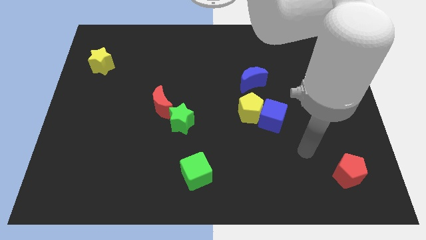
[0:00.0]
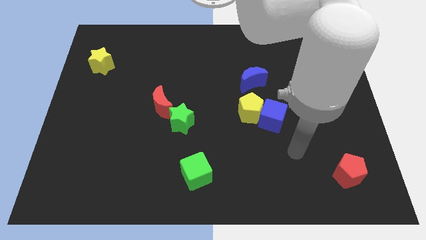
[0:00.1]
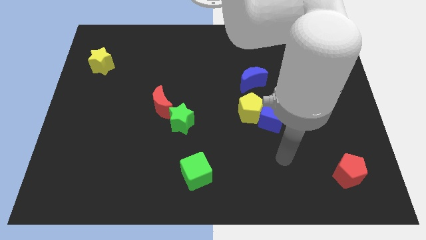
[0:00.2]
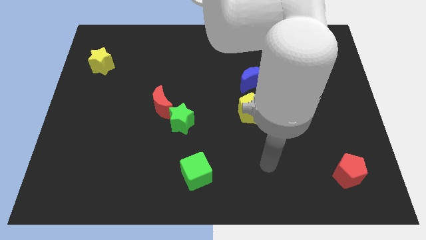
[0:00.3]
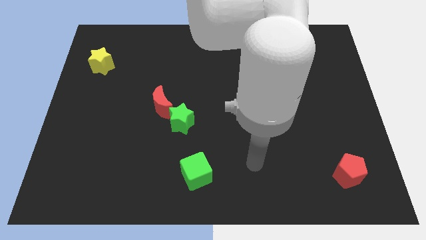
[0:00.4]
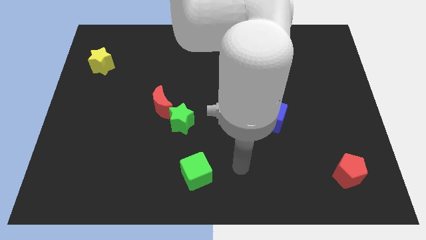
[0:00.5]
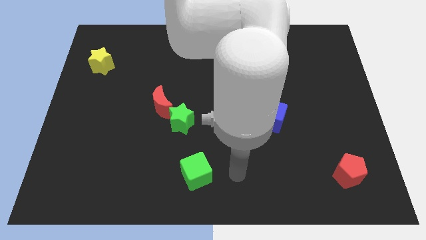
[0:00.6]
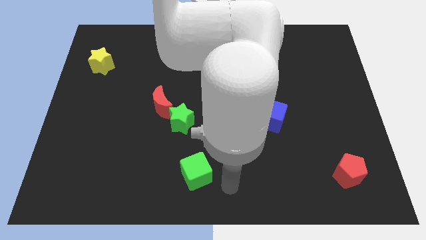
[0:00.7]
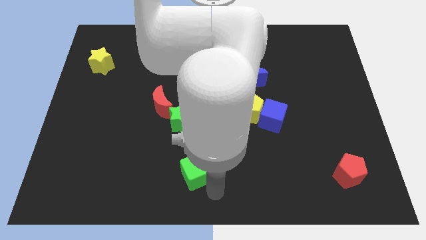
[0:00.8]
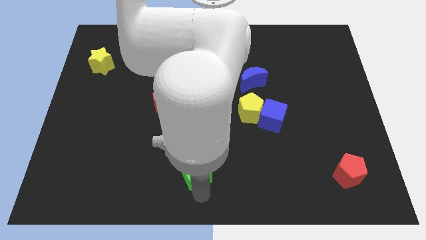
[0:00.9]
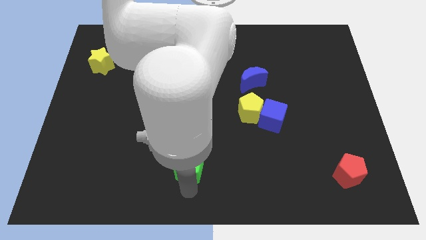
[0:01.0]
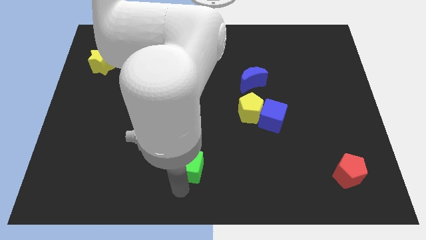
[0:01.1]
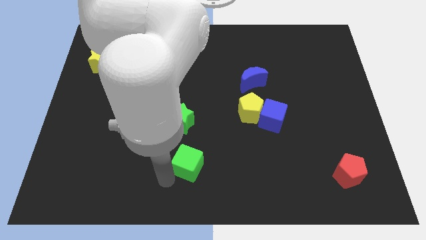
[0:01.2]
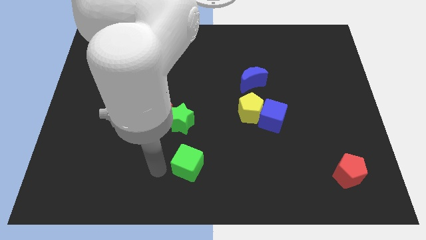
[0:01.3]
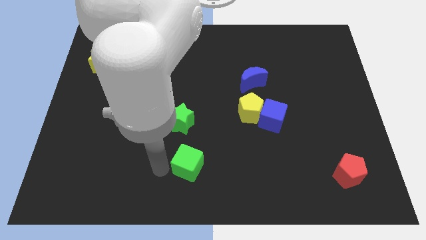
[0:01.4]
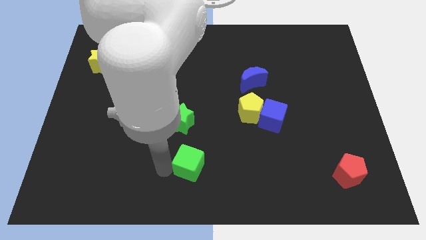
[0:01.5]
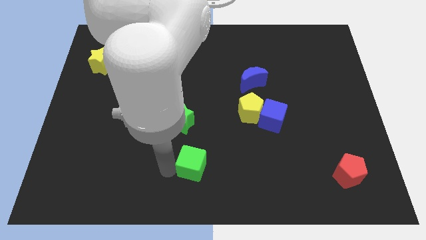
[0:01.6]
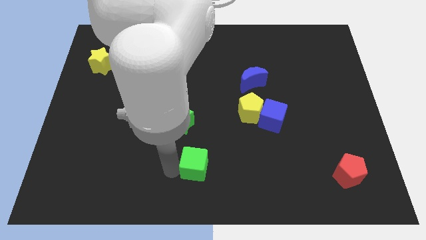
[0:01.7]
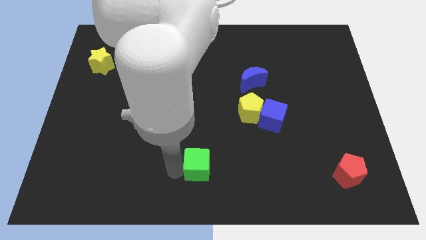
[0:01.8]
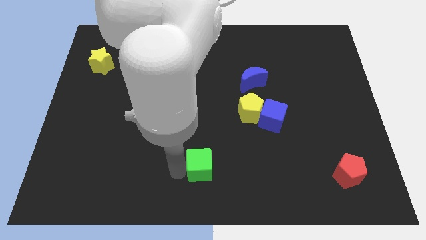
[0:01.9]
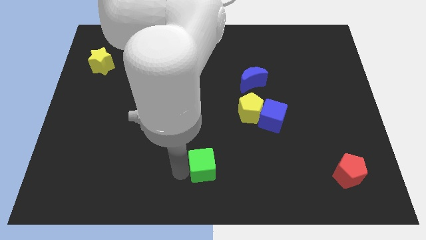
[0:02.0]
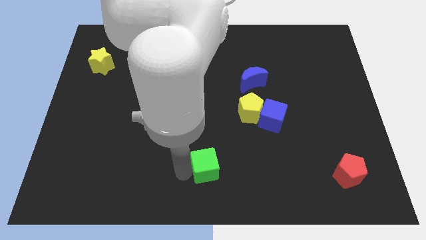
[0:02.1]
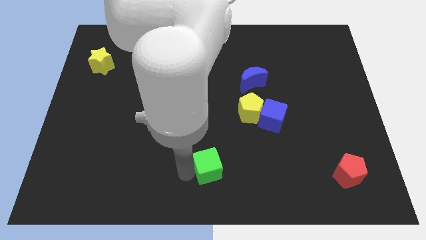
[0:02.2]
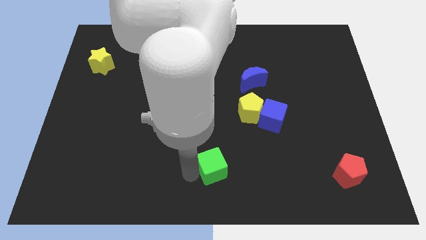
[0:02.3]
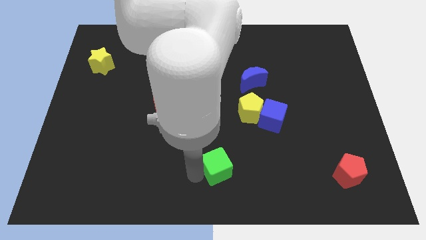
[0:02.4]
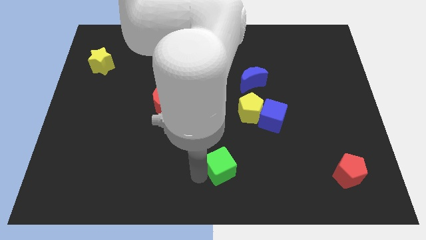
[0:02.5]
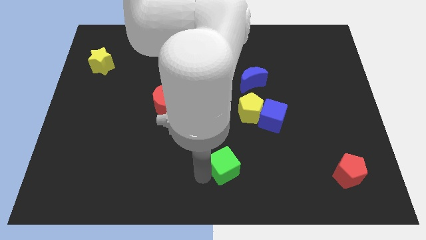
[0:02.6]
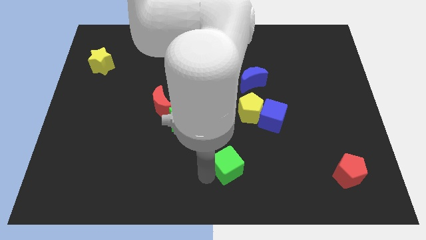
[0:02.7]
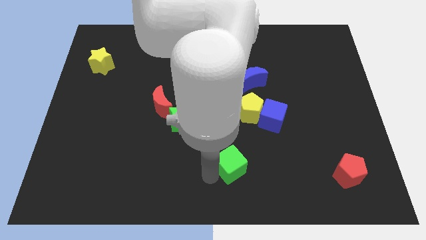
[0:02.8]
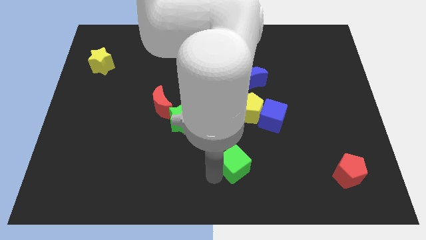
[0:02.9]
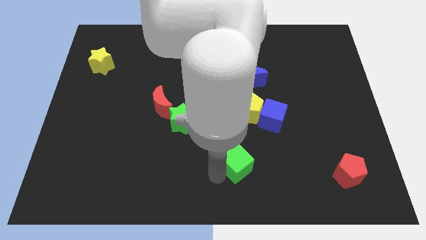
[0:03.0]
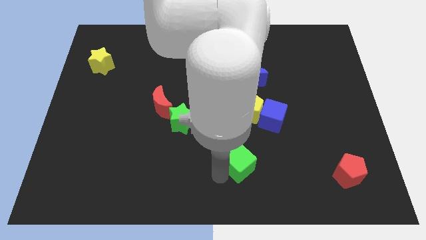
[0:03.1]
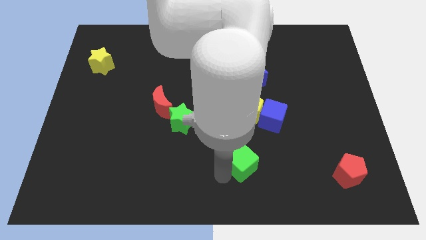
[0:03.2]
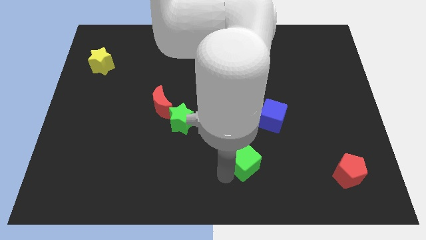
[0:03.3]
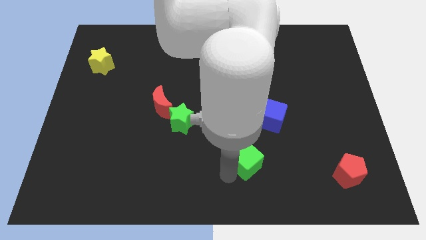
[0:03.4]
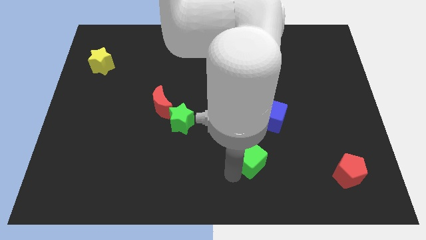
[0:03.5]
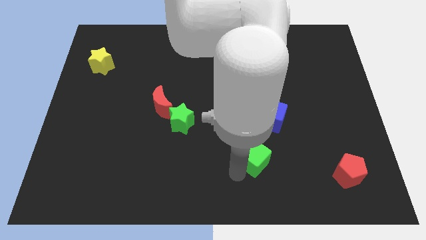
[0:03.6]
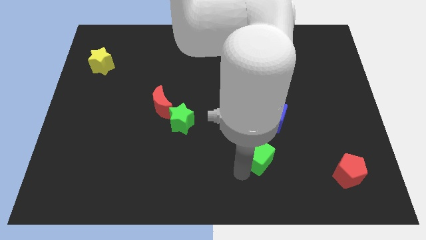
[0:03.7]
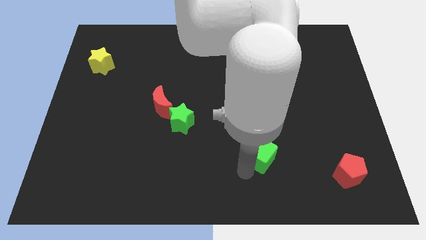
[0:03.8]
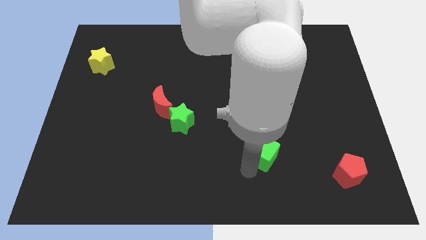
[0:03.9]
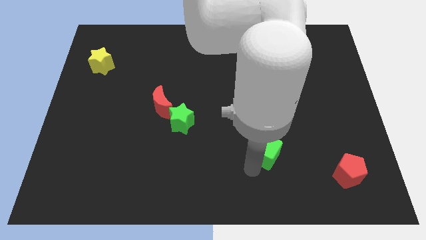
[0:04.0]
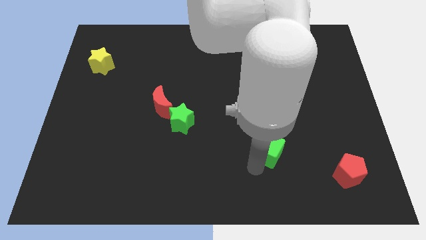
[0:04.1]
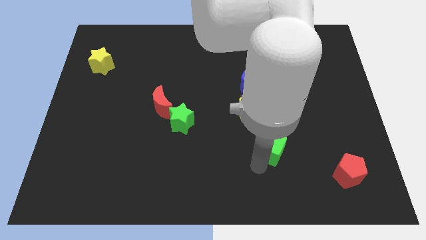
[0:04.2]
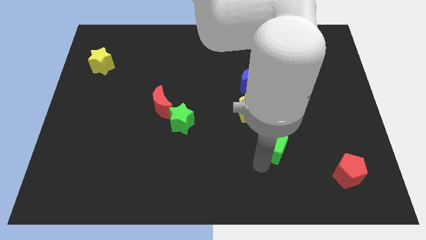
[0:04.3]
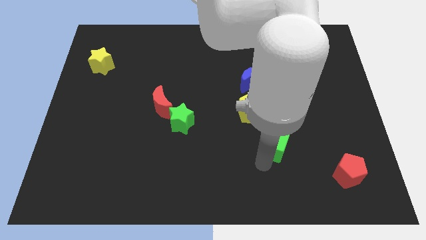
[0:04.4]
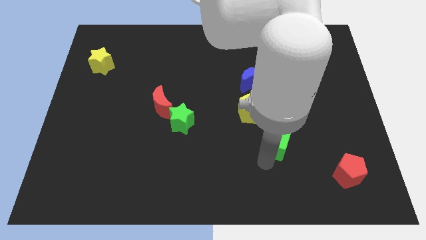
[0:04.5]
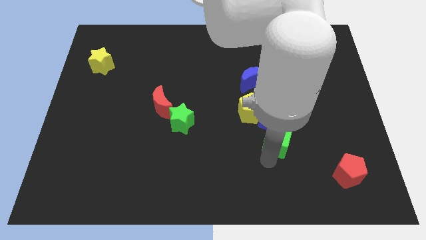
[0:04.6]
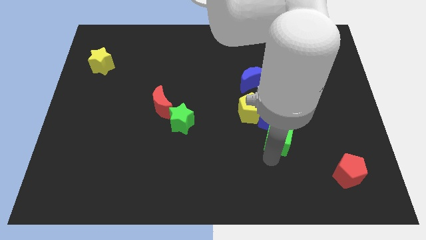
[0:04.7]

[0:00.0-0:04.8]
push the green cube next to the blue cube

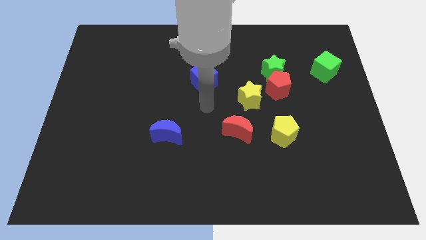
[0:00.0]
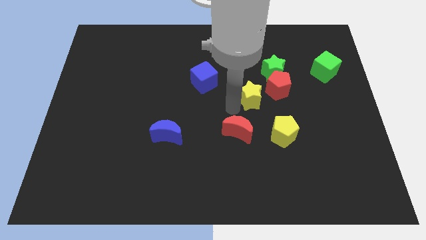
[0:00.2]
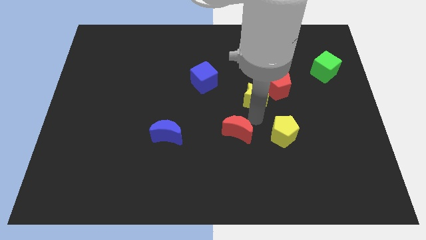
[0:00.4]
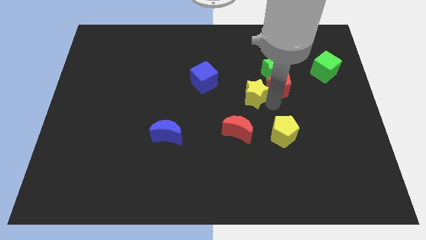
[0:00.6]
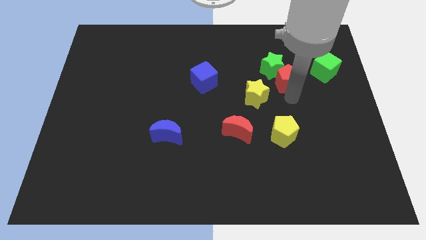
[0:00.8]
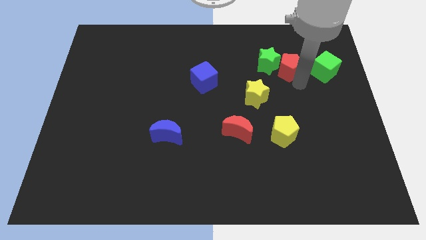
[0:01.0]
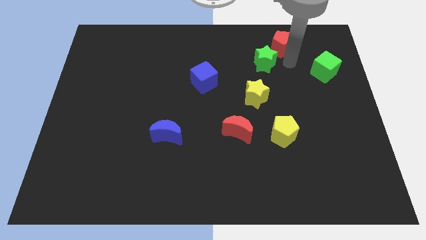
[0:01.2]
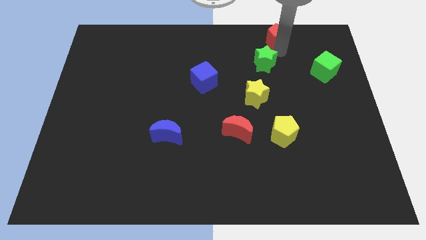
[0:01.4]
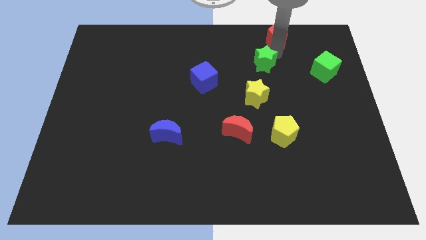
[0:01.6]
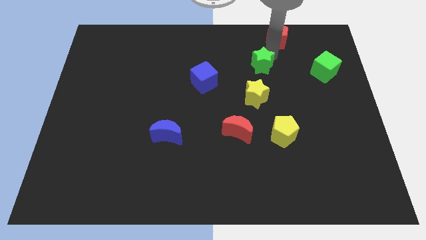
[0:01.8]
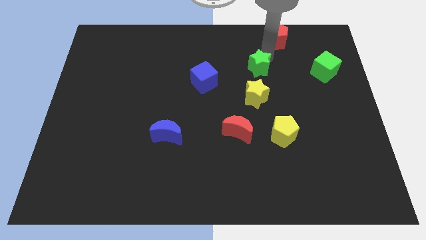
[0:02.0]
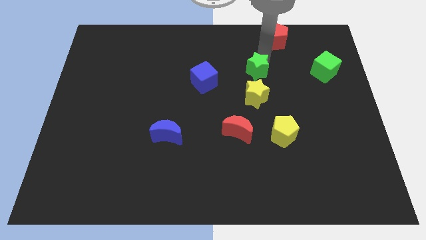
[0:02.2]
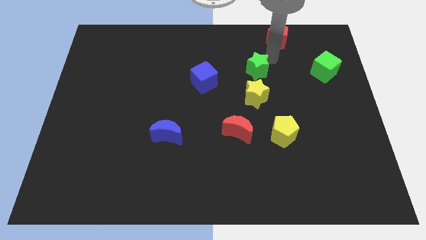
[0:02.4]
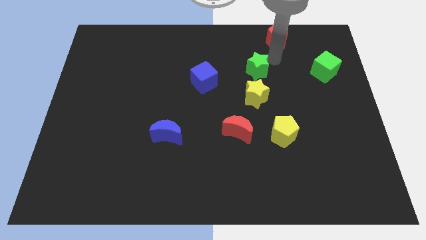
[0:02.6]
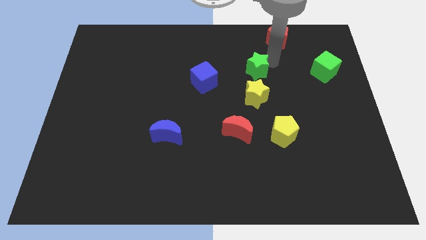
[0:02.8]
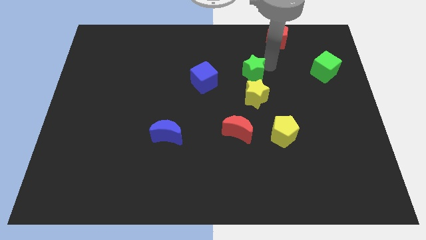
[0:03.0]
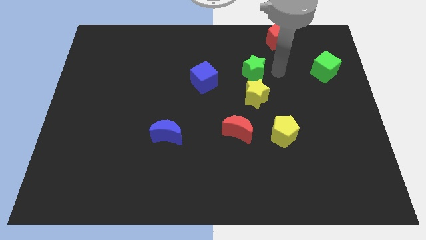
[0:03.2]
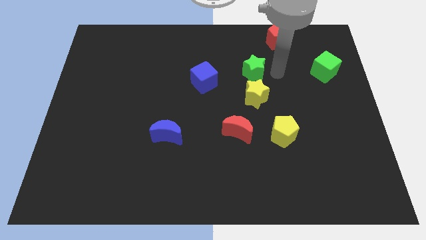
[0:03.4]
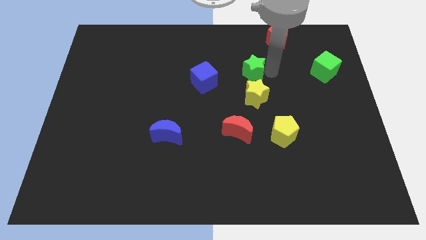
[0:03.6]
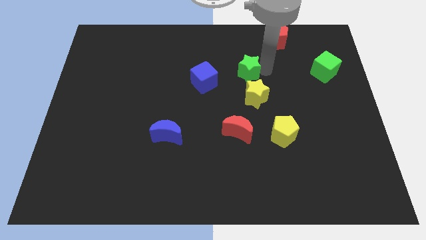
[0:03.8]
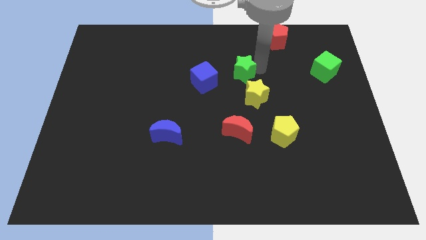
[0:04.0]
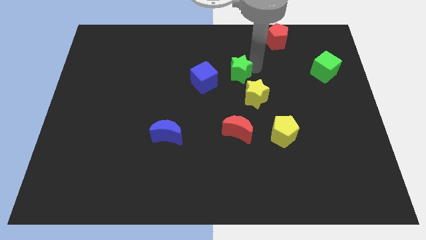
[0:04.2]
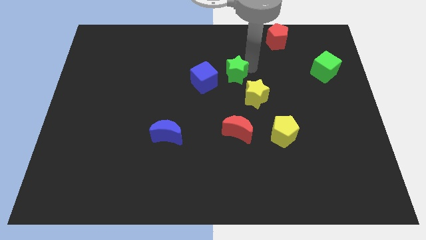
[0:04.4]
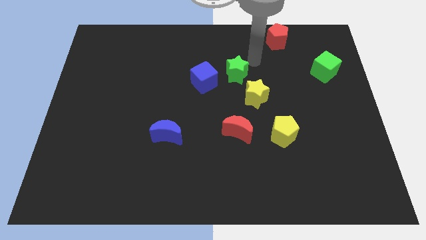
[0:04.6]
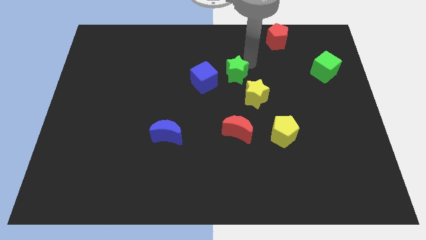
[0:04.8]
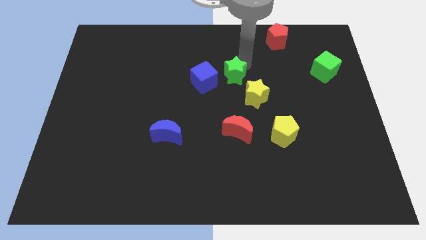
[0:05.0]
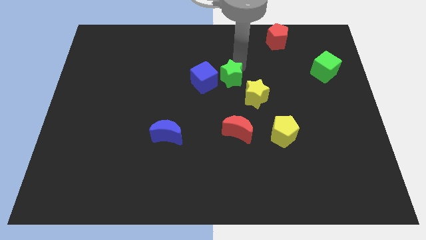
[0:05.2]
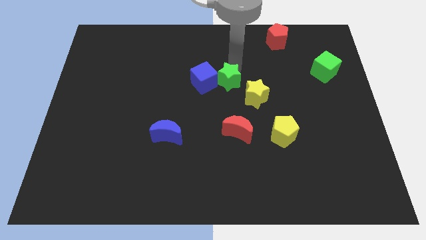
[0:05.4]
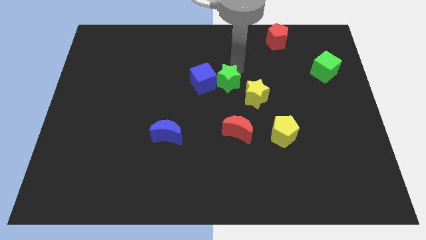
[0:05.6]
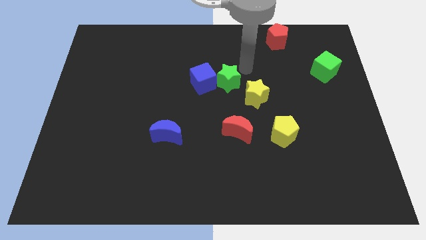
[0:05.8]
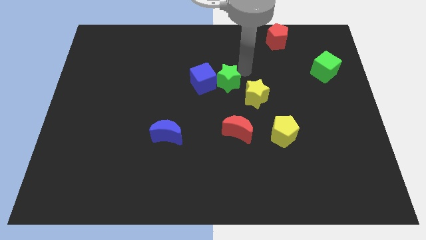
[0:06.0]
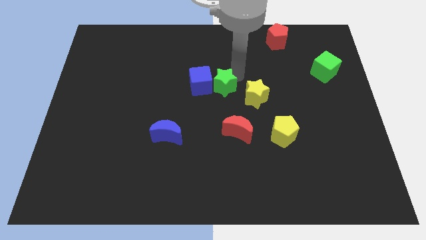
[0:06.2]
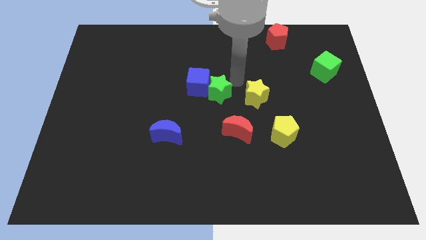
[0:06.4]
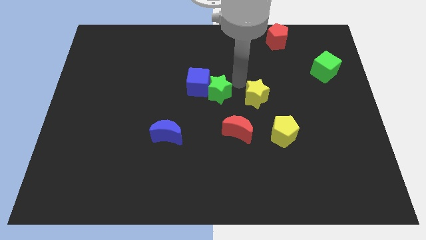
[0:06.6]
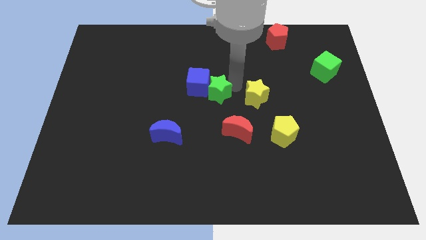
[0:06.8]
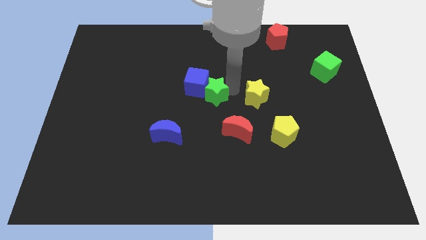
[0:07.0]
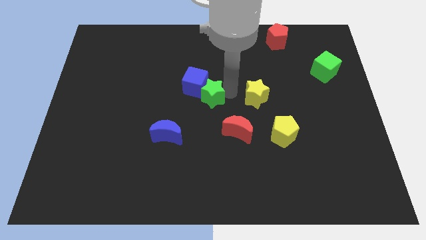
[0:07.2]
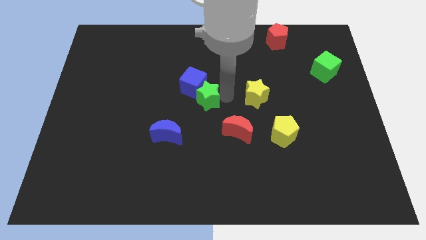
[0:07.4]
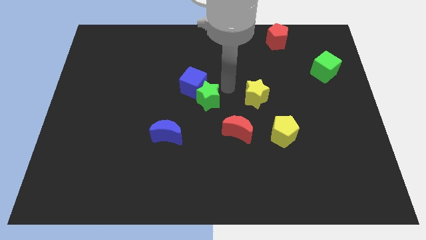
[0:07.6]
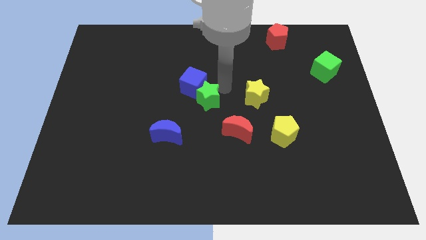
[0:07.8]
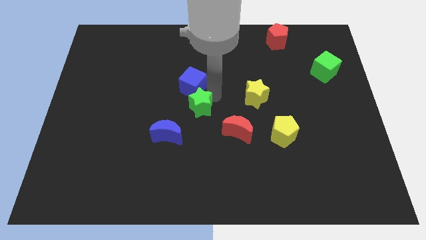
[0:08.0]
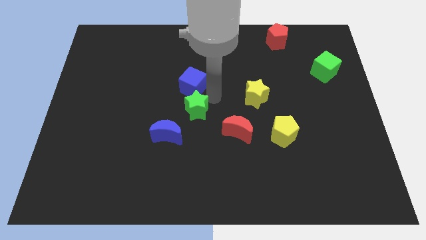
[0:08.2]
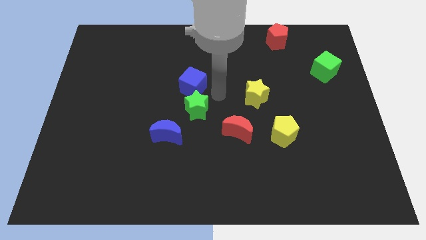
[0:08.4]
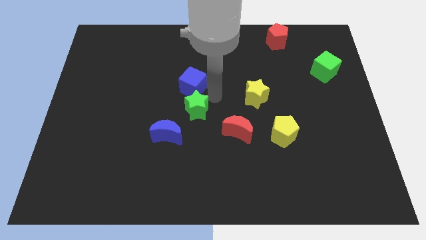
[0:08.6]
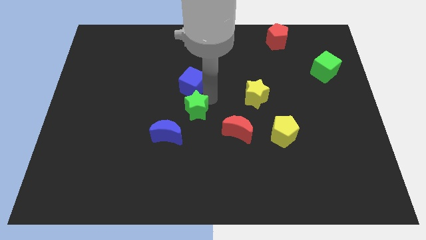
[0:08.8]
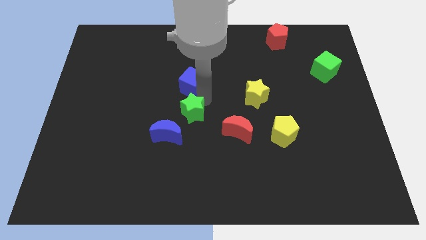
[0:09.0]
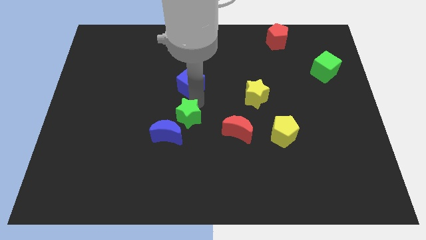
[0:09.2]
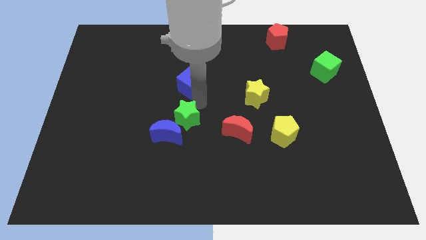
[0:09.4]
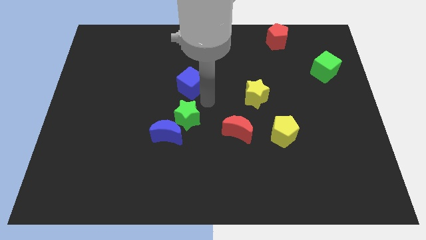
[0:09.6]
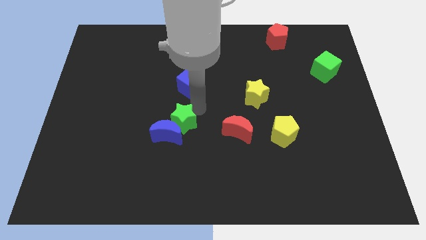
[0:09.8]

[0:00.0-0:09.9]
slide the green star towards the blue moon
